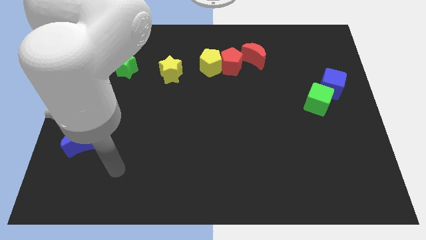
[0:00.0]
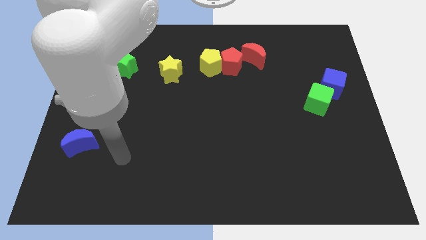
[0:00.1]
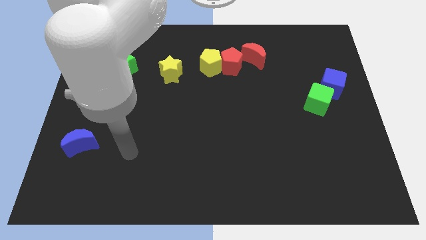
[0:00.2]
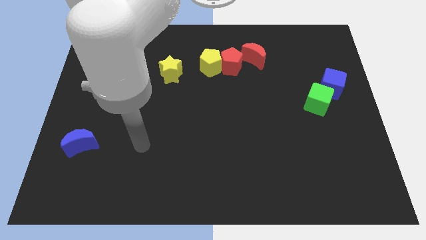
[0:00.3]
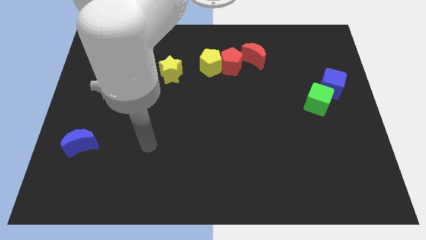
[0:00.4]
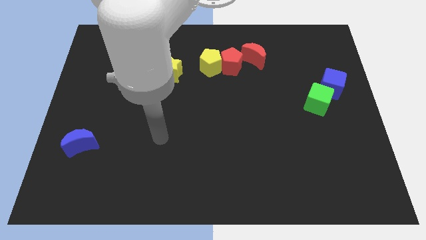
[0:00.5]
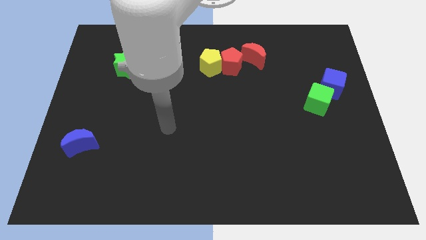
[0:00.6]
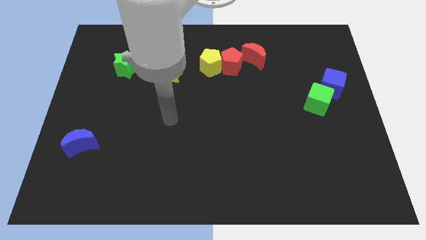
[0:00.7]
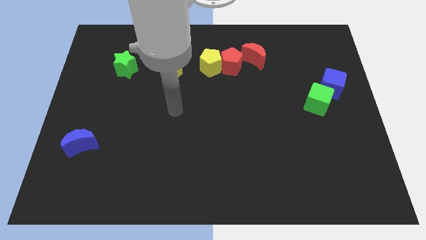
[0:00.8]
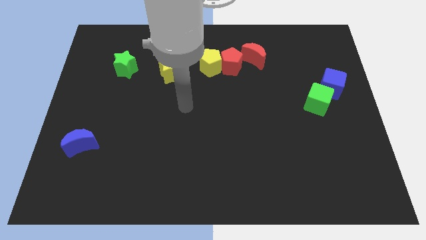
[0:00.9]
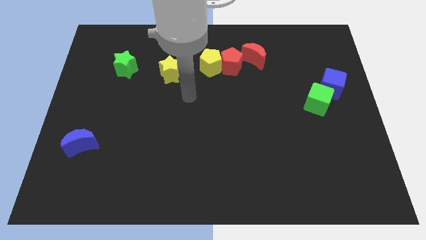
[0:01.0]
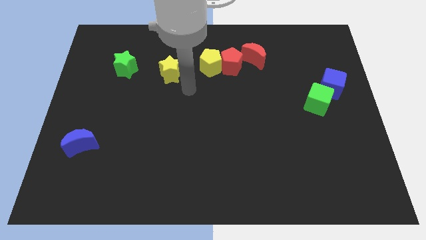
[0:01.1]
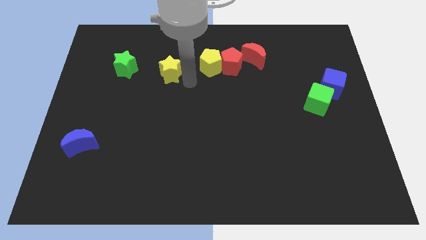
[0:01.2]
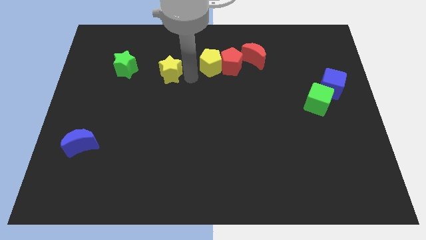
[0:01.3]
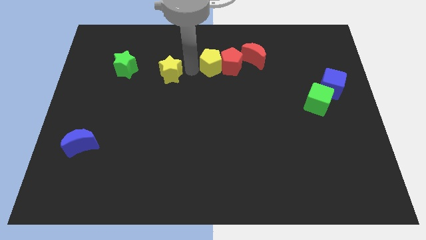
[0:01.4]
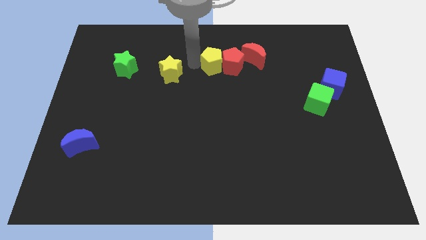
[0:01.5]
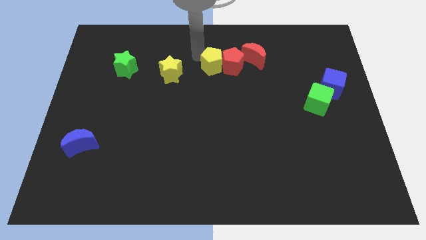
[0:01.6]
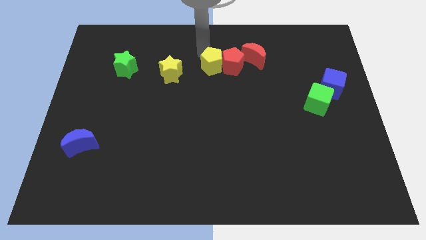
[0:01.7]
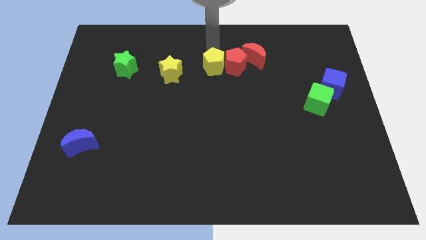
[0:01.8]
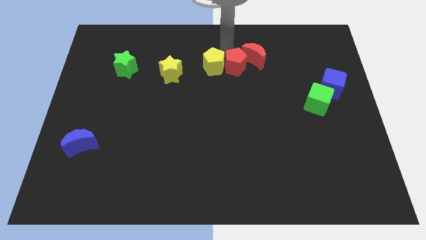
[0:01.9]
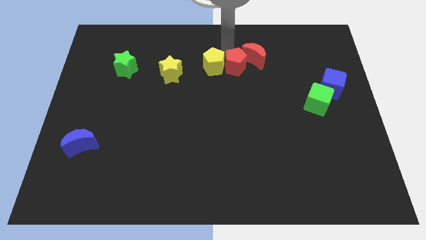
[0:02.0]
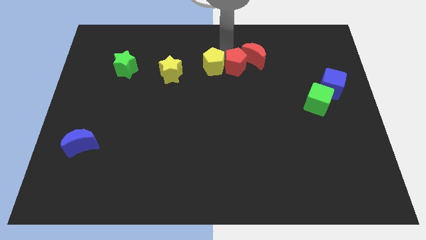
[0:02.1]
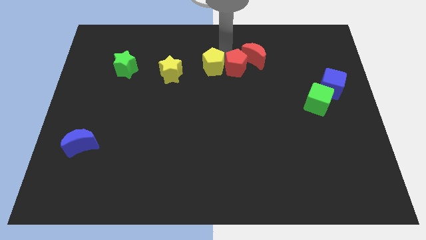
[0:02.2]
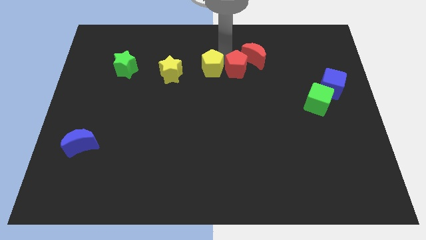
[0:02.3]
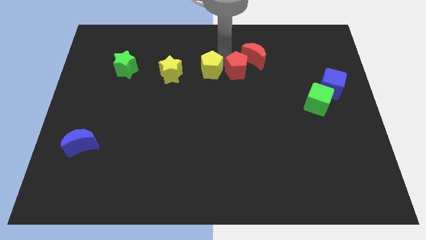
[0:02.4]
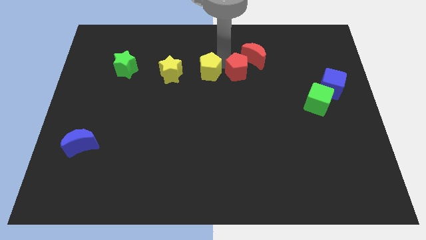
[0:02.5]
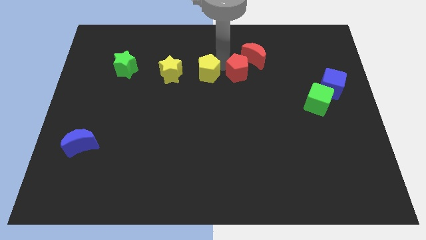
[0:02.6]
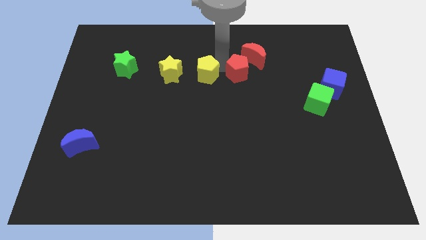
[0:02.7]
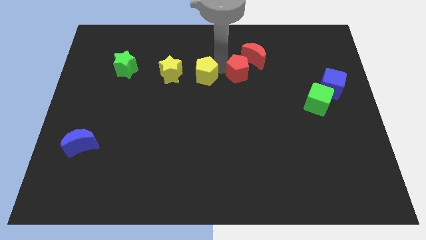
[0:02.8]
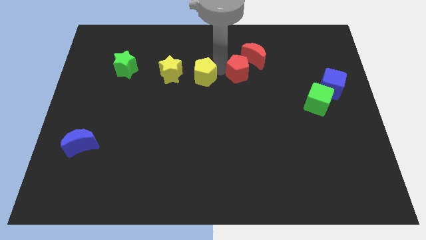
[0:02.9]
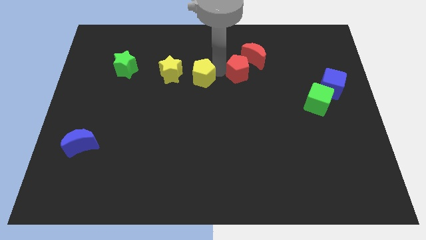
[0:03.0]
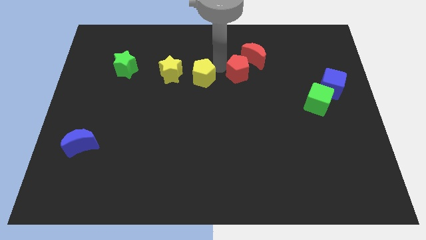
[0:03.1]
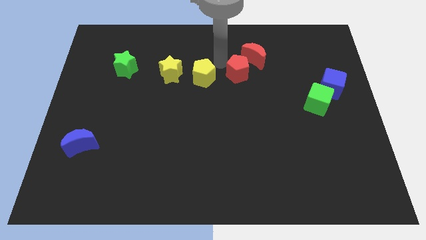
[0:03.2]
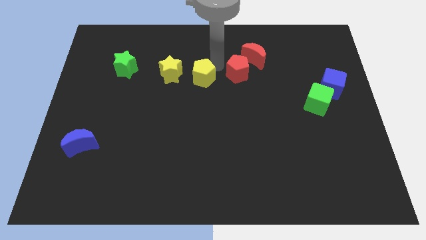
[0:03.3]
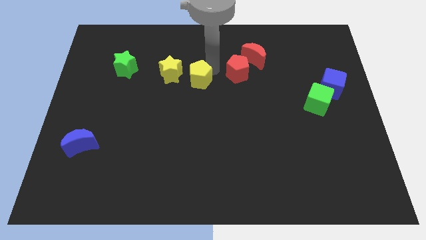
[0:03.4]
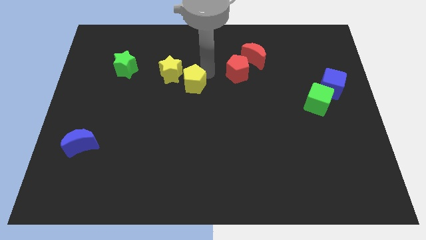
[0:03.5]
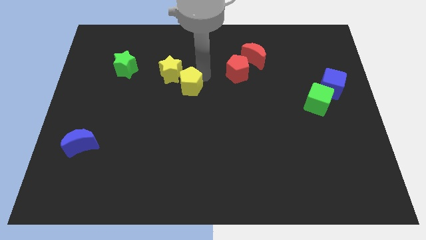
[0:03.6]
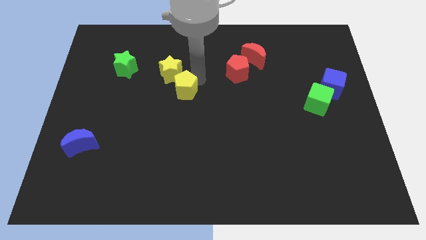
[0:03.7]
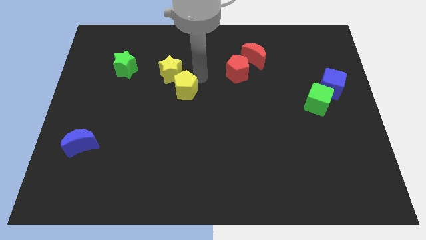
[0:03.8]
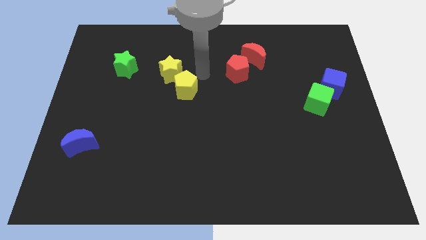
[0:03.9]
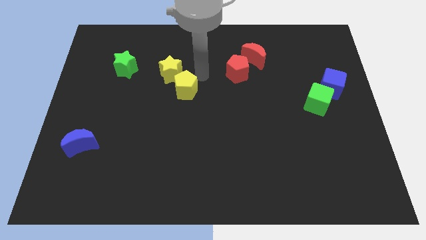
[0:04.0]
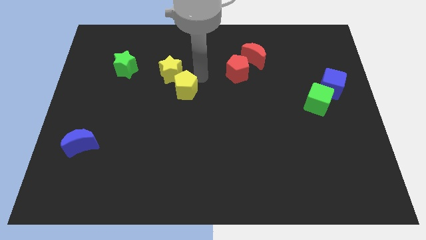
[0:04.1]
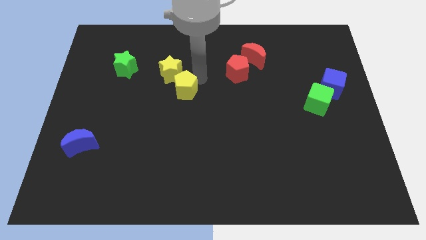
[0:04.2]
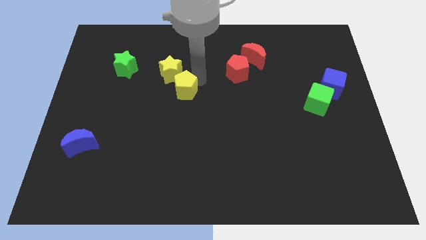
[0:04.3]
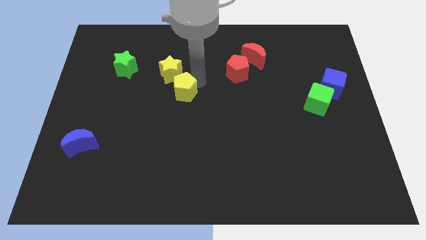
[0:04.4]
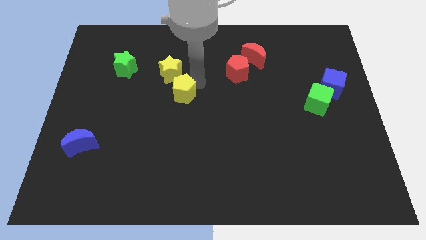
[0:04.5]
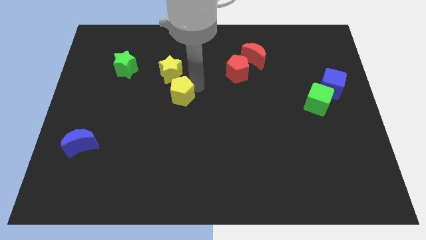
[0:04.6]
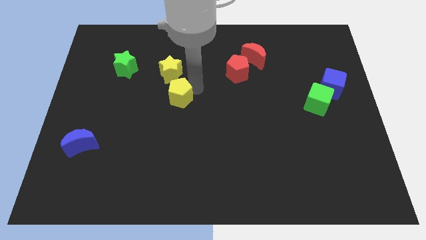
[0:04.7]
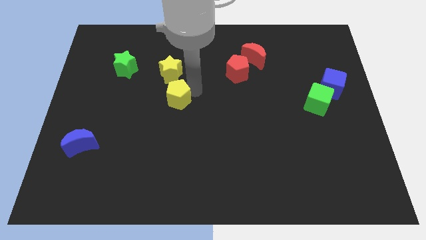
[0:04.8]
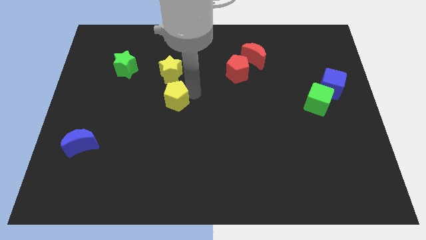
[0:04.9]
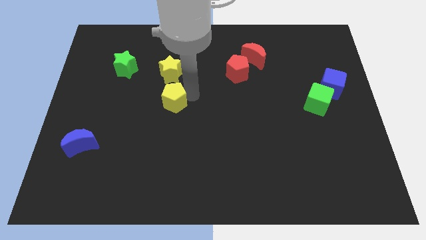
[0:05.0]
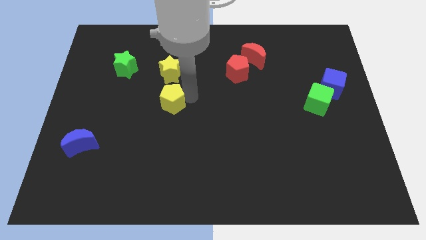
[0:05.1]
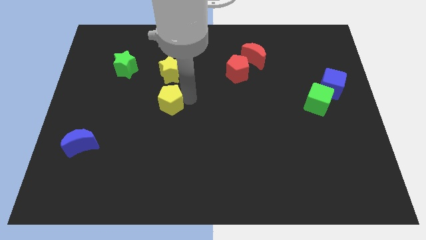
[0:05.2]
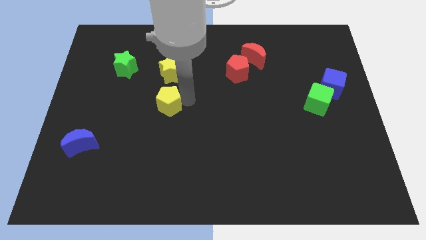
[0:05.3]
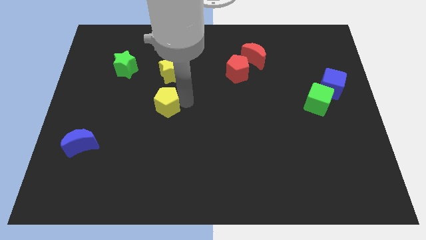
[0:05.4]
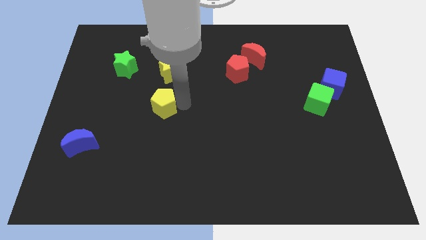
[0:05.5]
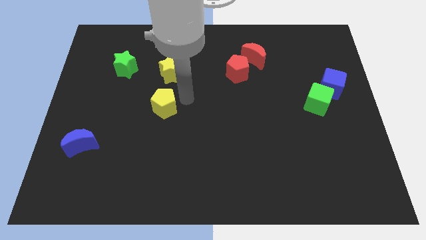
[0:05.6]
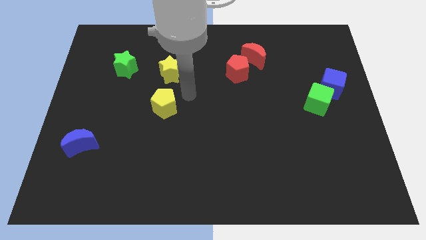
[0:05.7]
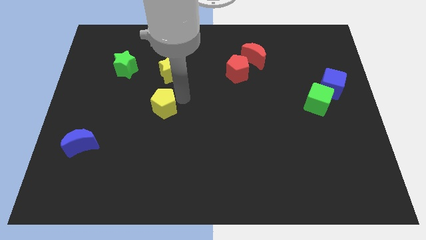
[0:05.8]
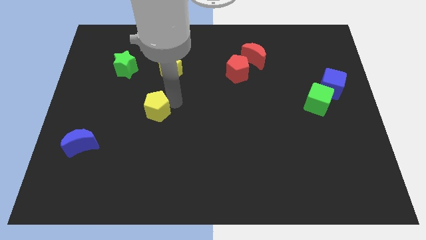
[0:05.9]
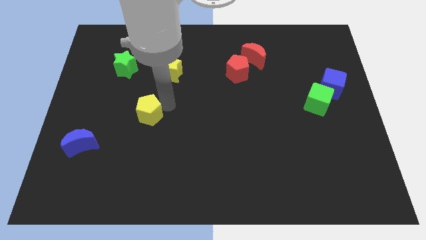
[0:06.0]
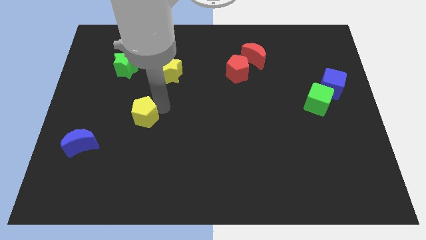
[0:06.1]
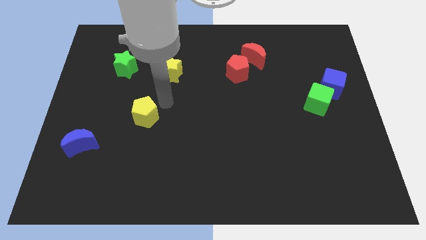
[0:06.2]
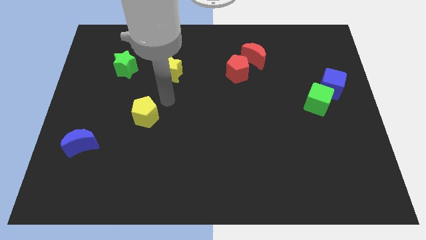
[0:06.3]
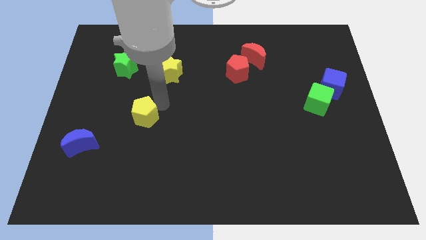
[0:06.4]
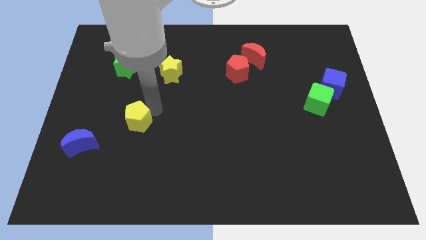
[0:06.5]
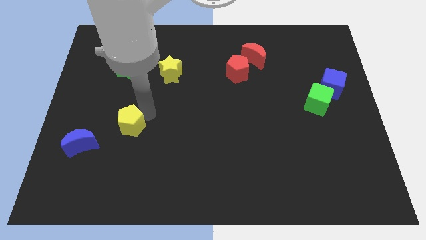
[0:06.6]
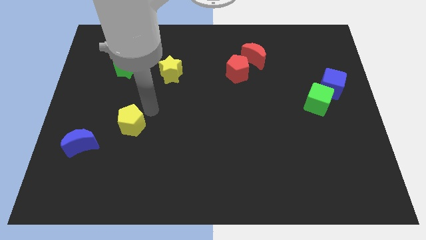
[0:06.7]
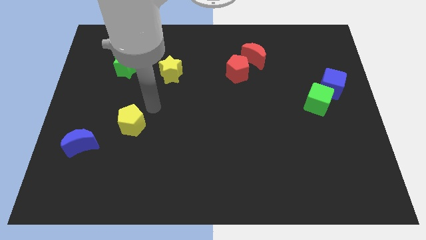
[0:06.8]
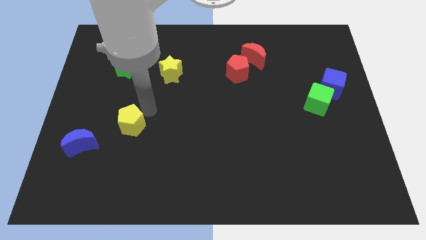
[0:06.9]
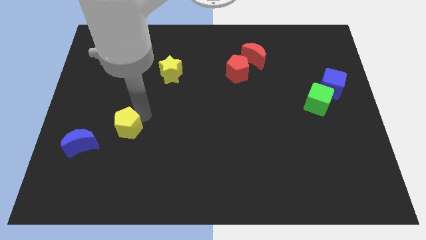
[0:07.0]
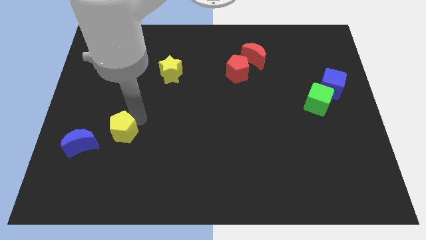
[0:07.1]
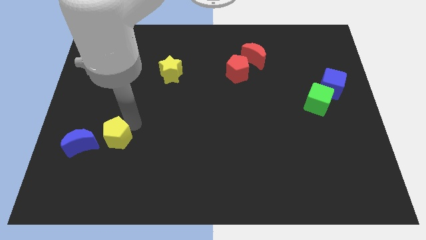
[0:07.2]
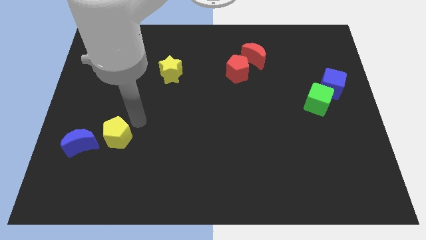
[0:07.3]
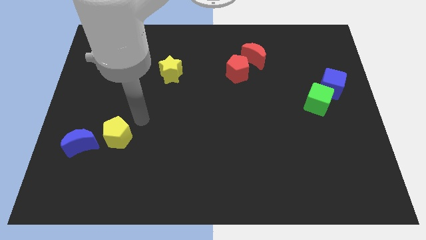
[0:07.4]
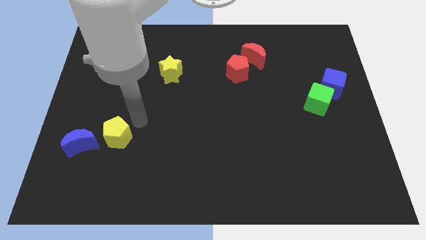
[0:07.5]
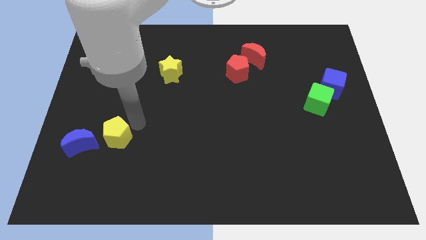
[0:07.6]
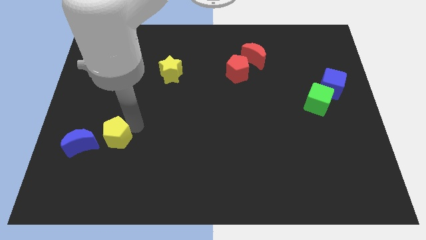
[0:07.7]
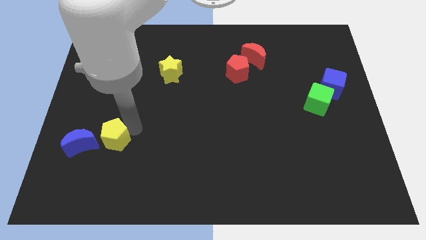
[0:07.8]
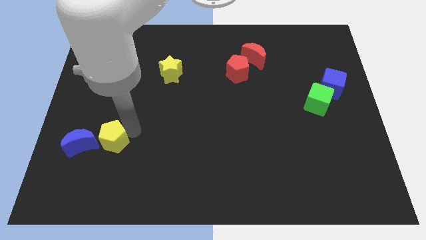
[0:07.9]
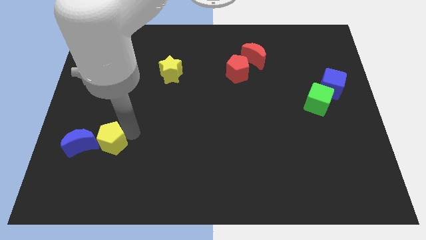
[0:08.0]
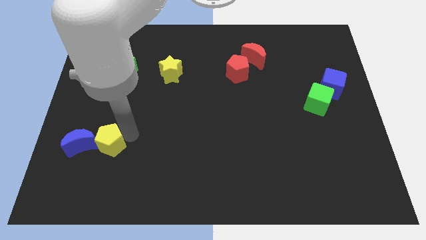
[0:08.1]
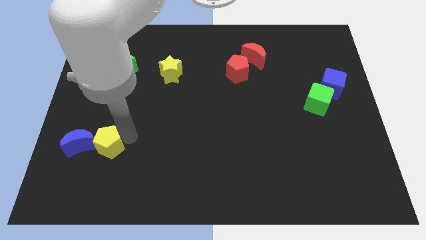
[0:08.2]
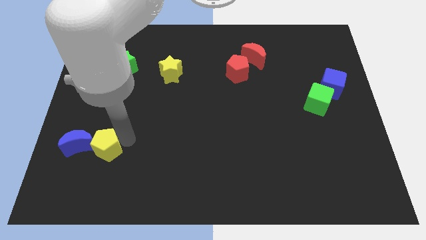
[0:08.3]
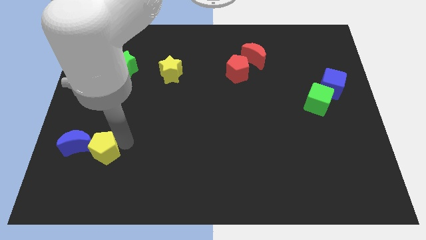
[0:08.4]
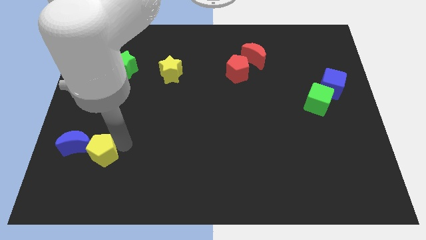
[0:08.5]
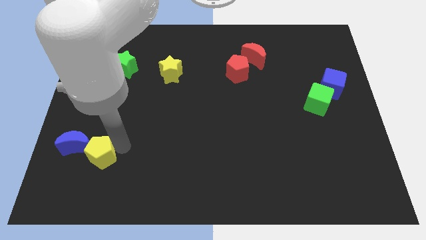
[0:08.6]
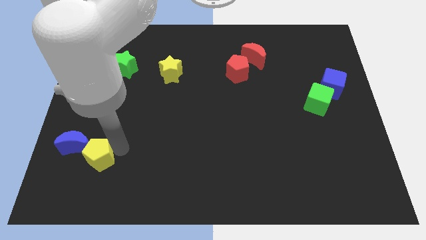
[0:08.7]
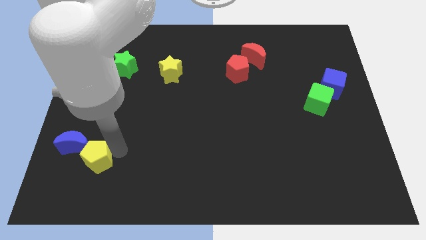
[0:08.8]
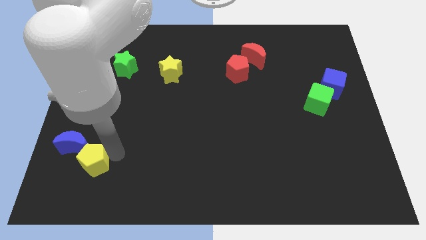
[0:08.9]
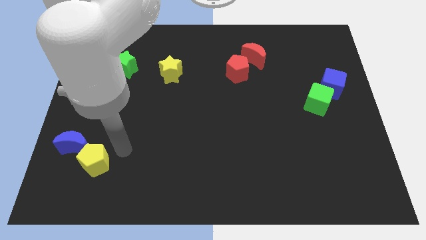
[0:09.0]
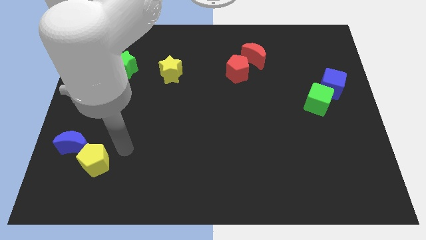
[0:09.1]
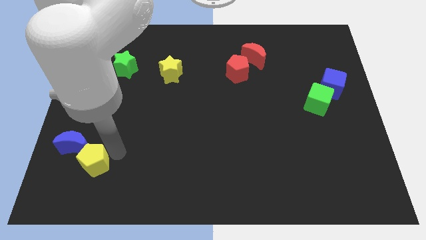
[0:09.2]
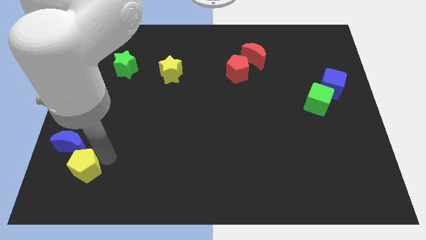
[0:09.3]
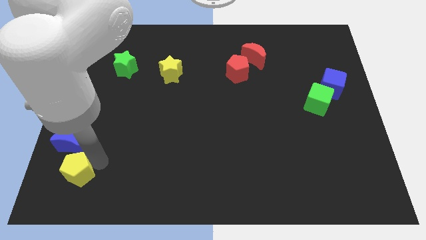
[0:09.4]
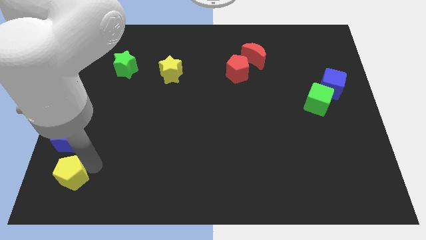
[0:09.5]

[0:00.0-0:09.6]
slide the yellow pentagon to the lower left corner
